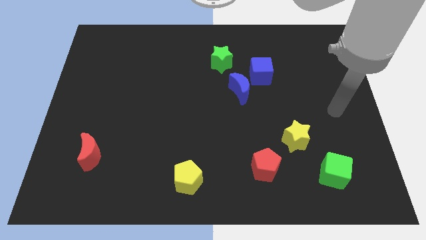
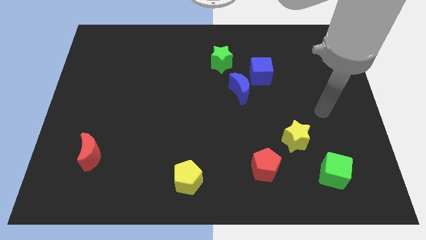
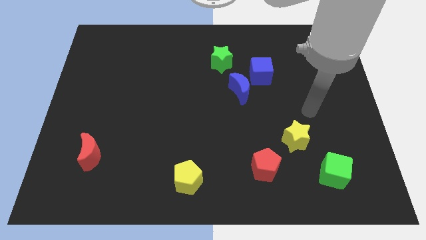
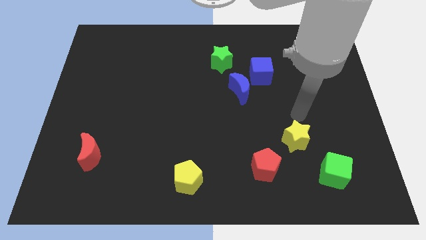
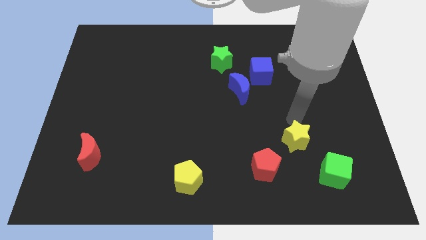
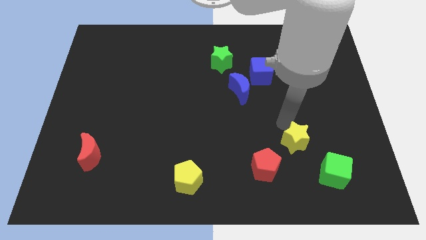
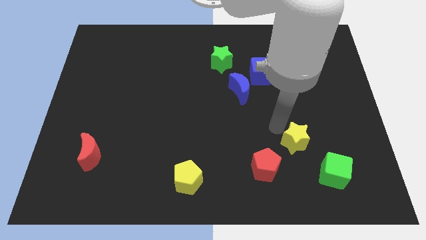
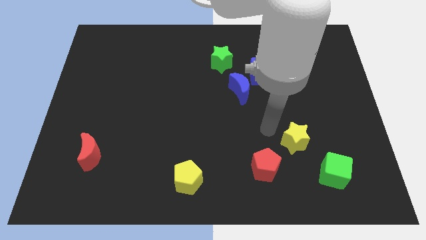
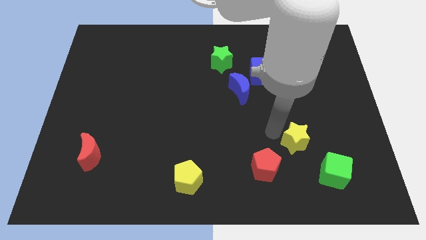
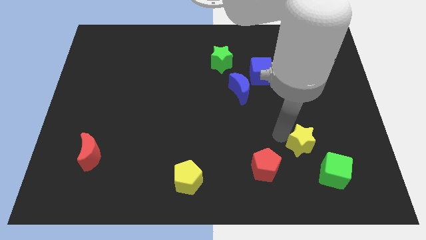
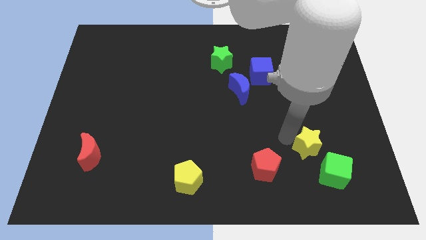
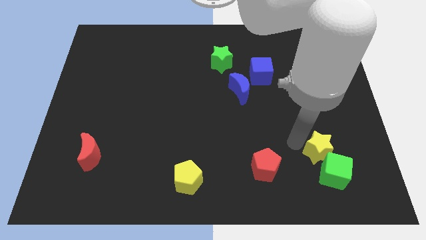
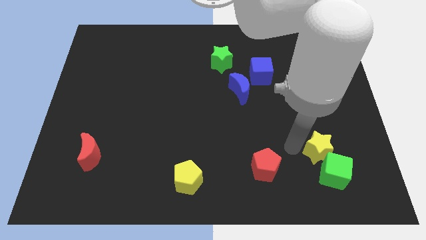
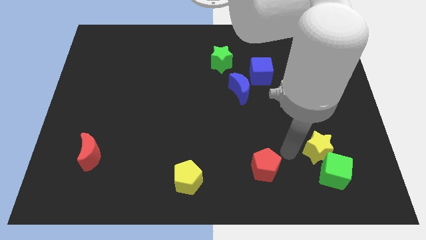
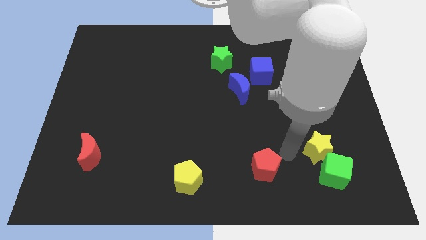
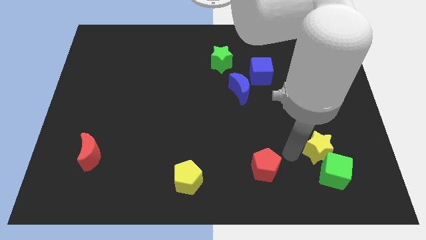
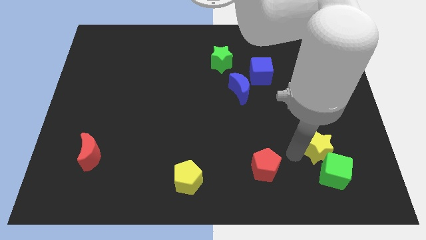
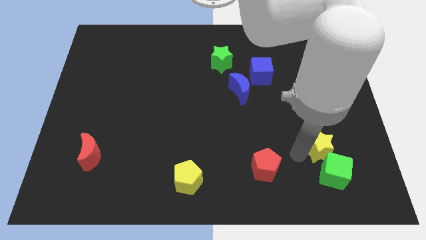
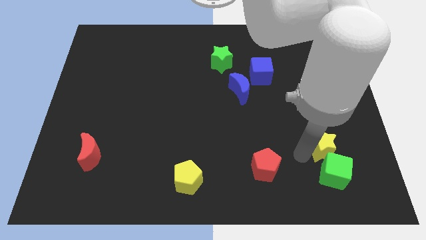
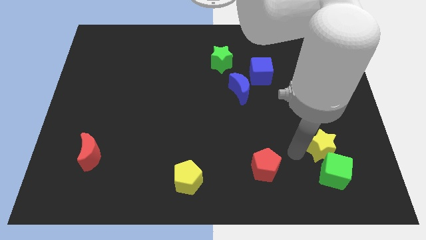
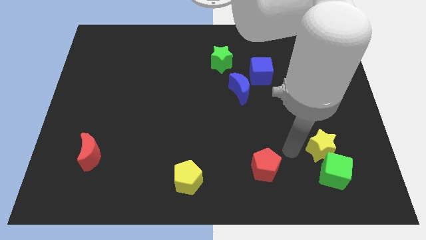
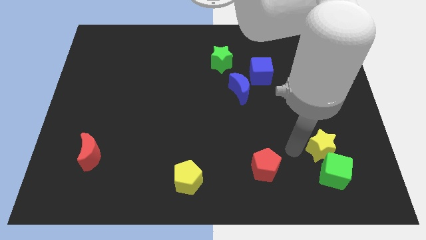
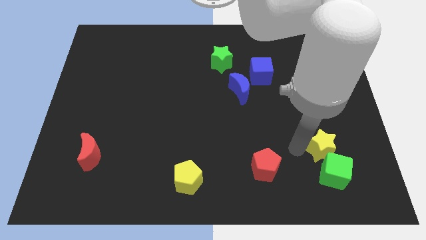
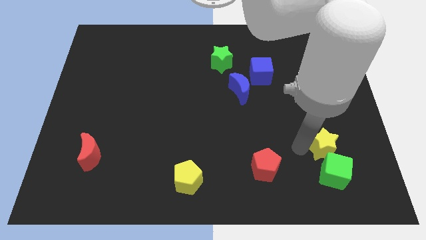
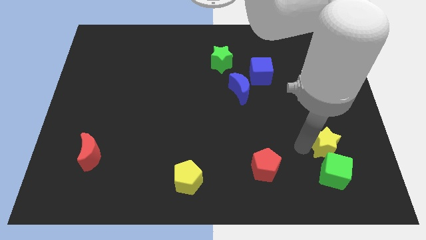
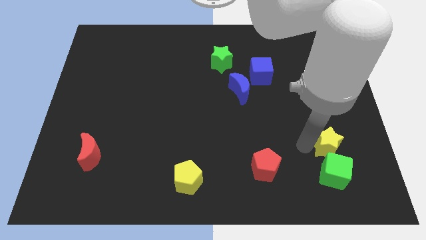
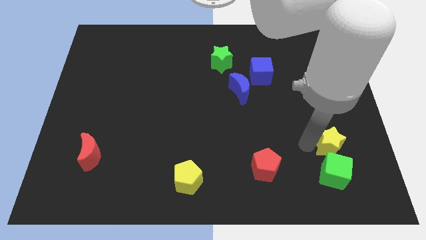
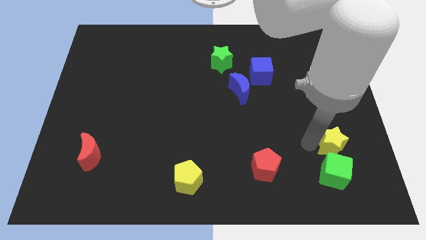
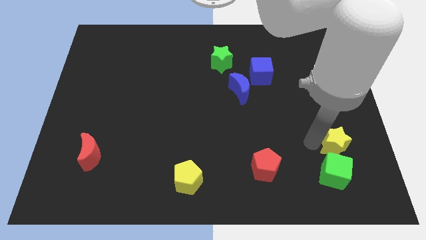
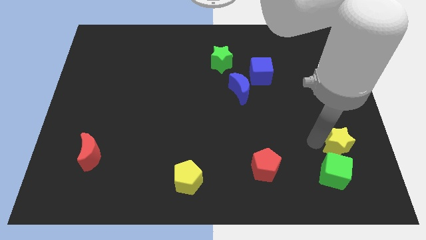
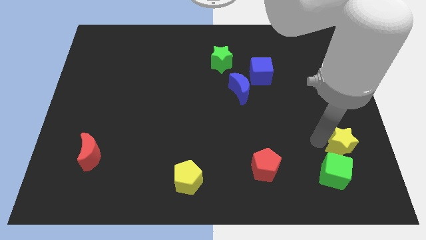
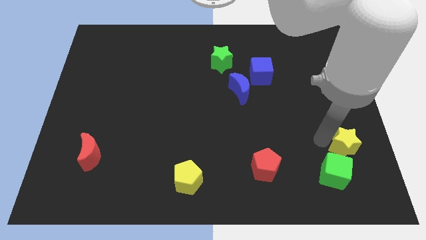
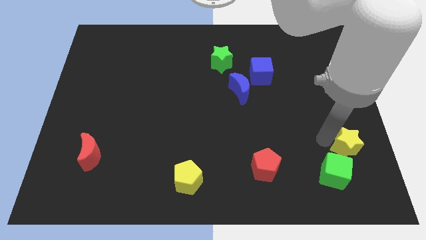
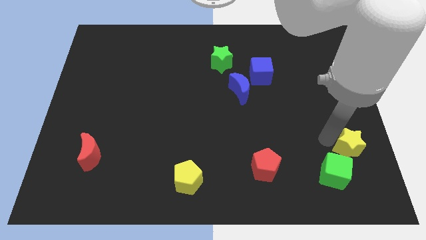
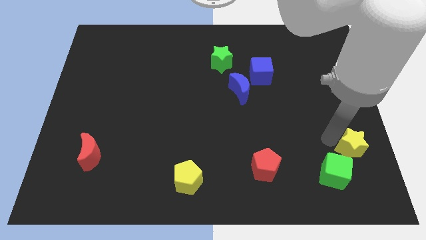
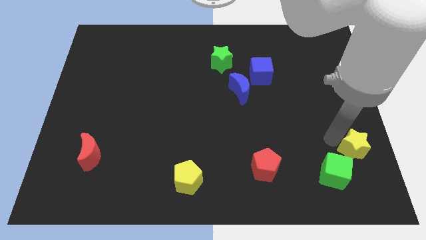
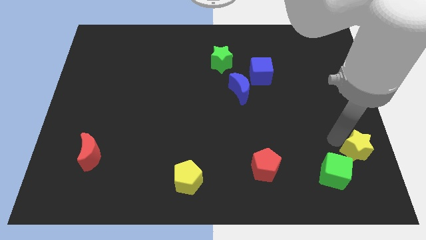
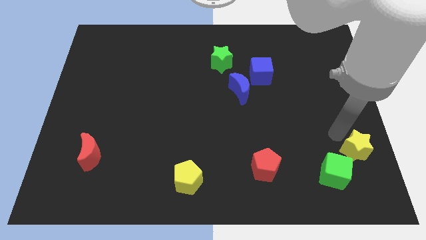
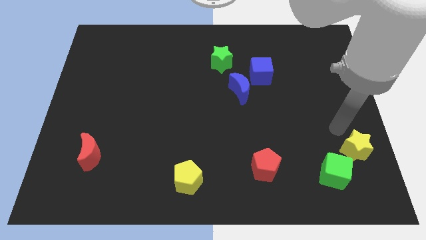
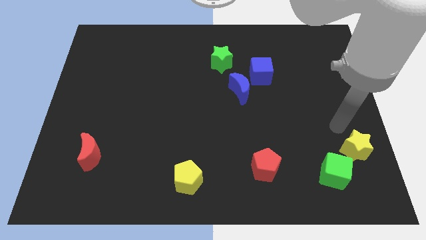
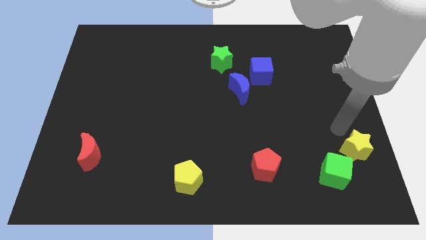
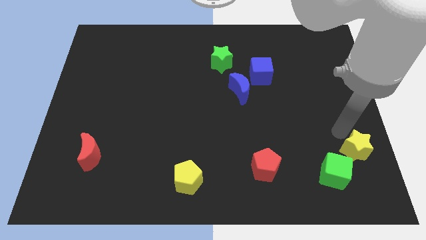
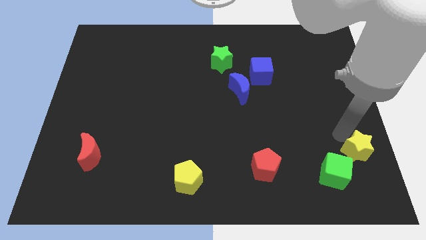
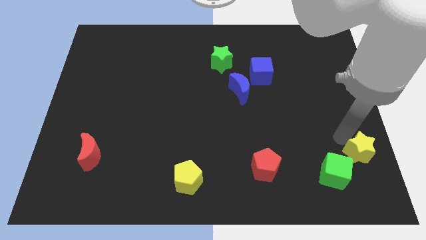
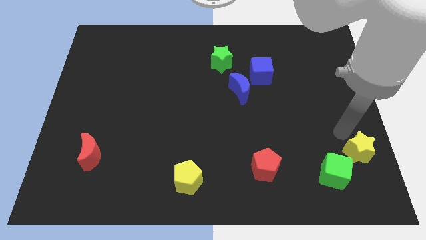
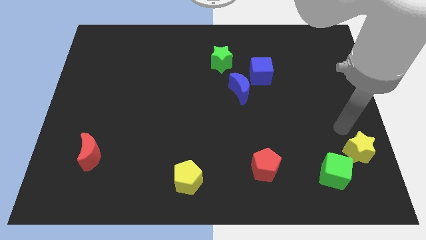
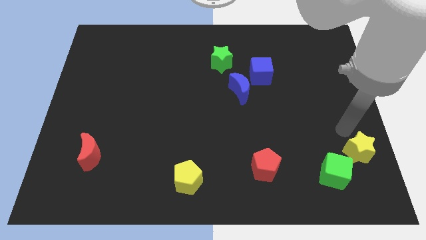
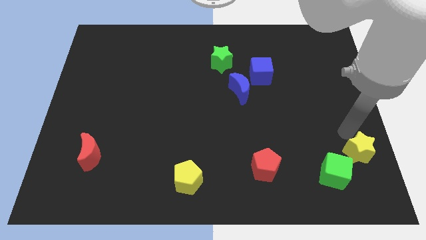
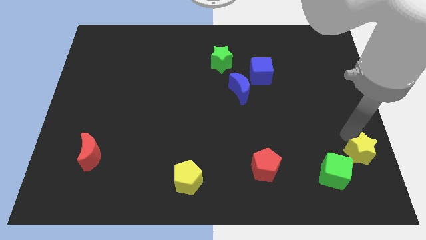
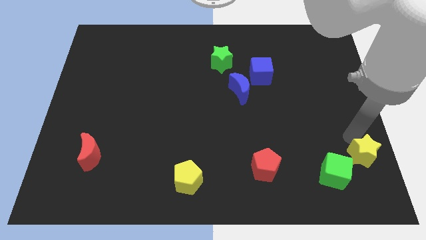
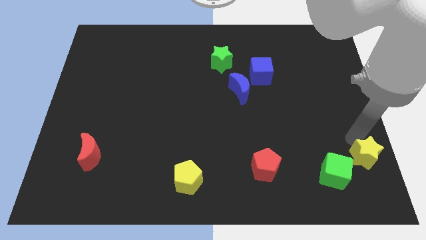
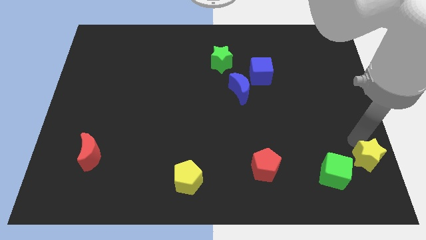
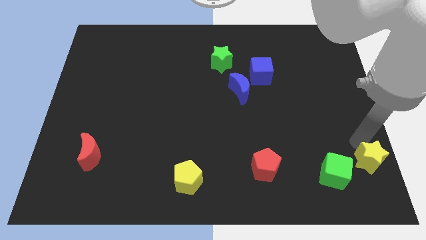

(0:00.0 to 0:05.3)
put the yellow star to the bottom right

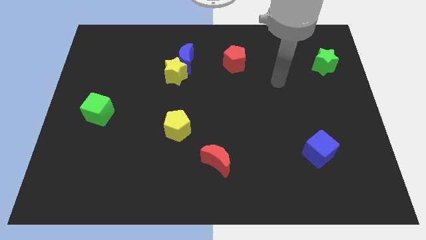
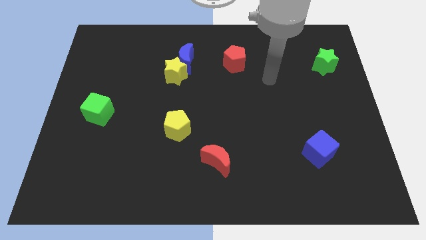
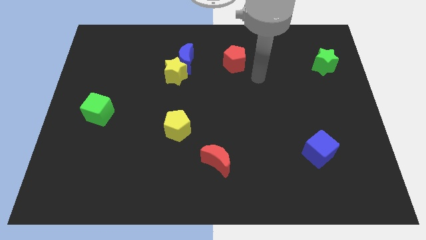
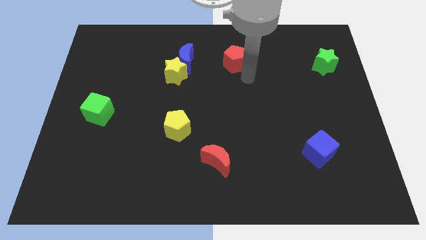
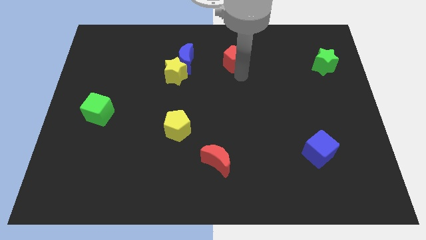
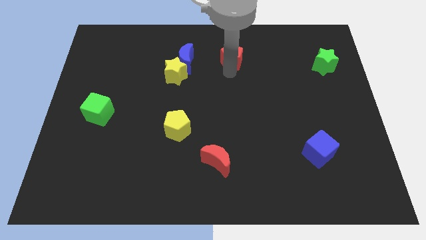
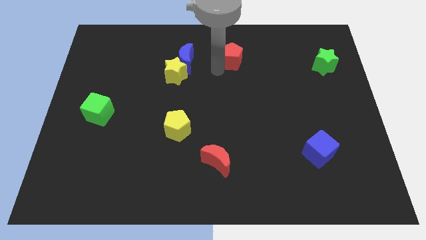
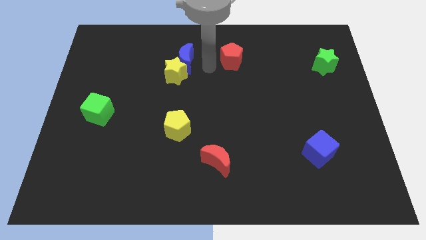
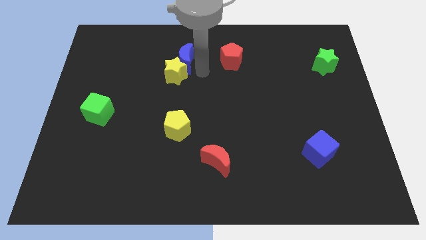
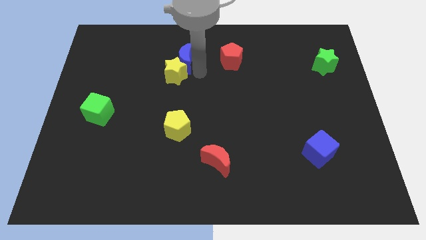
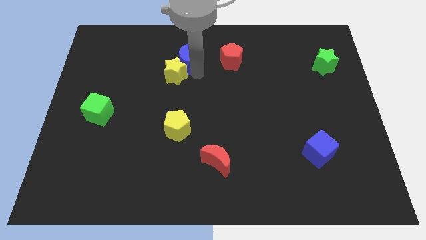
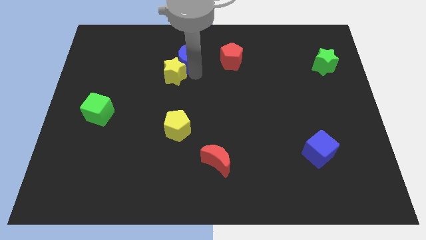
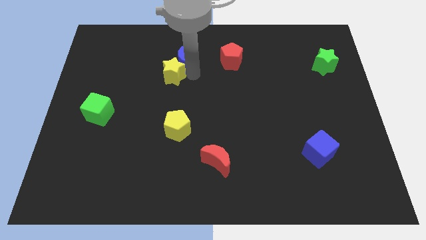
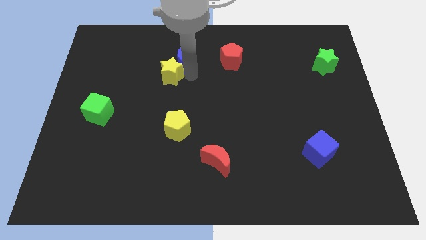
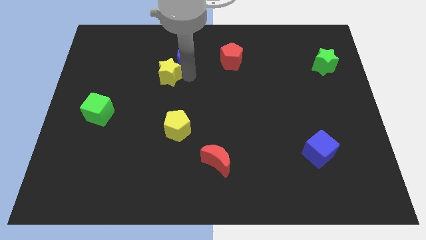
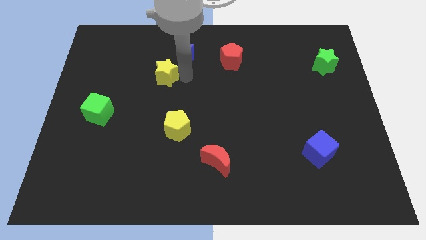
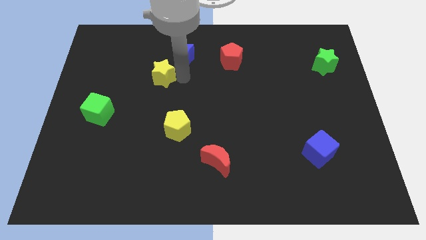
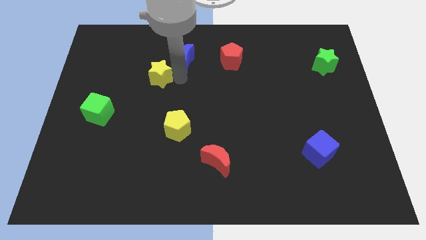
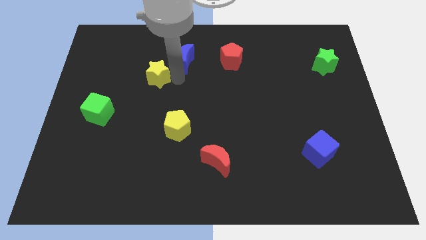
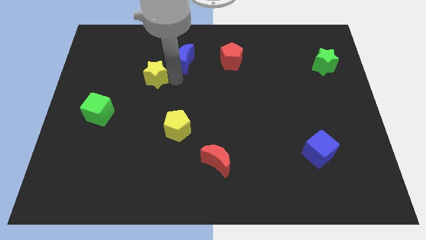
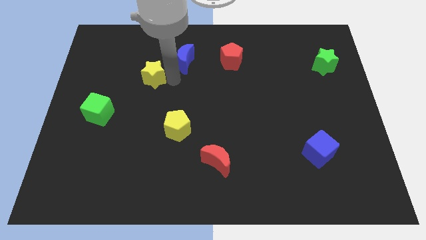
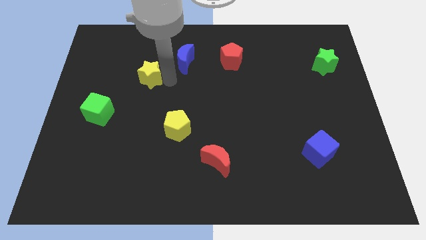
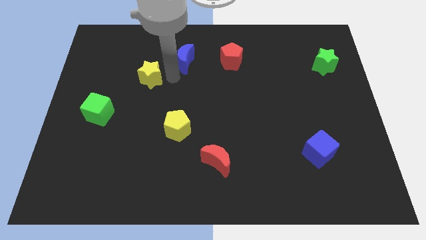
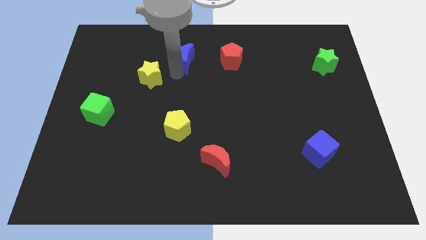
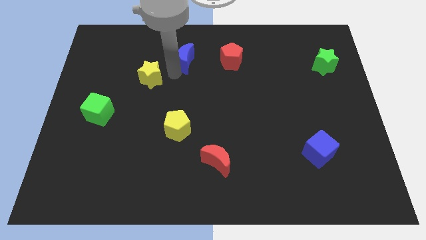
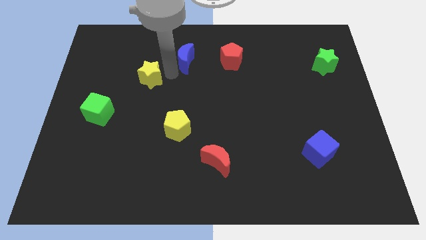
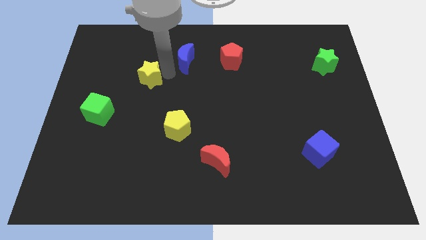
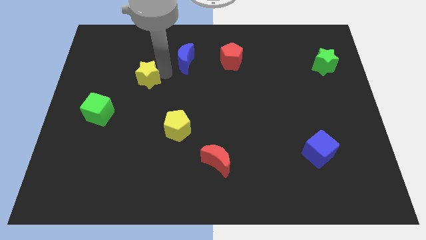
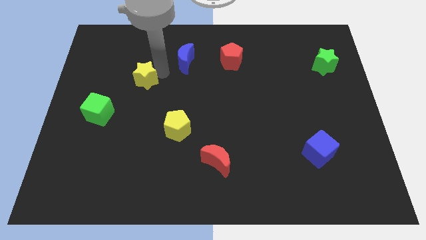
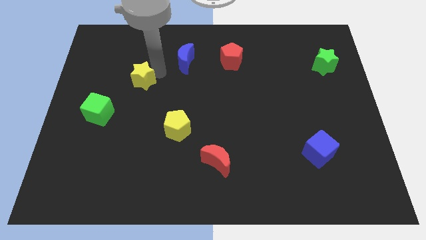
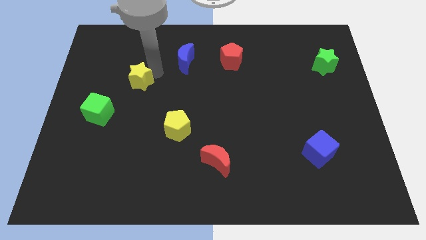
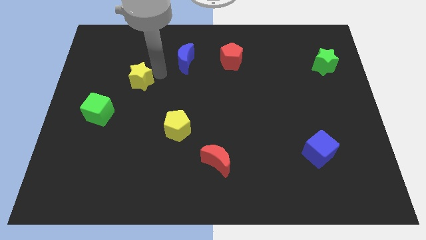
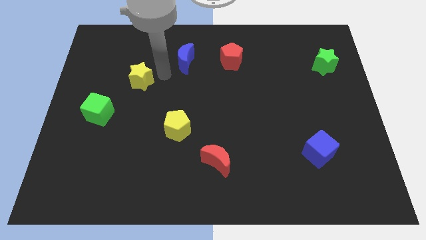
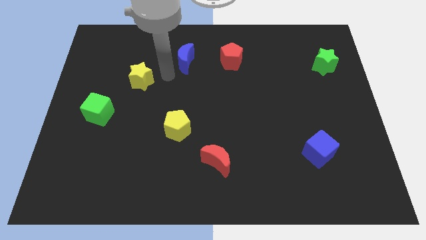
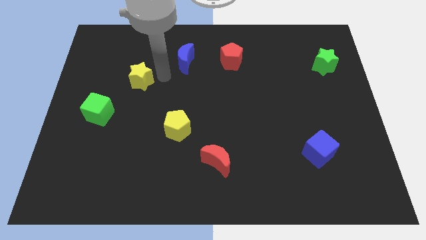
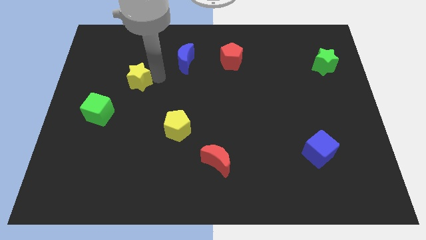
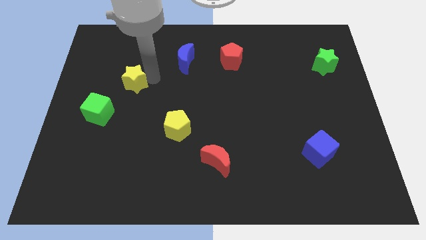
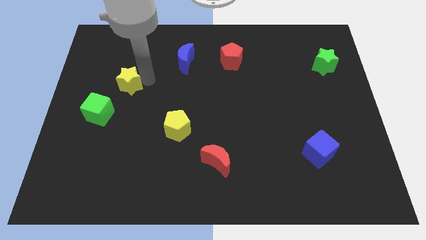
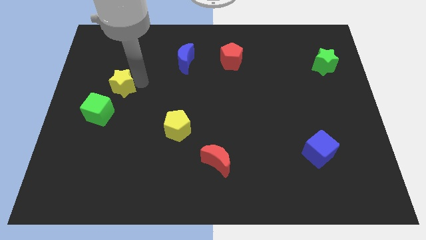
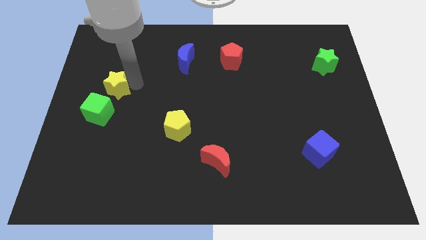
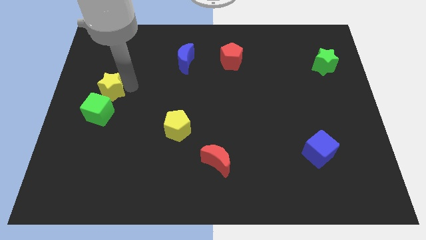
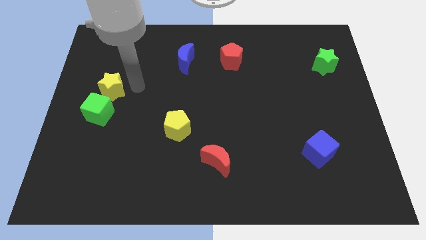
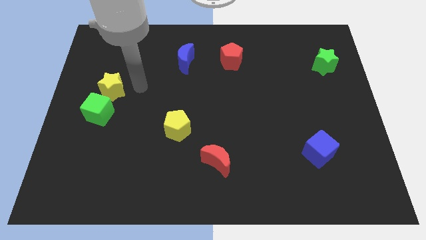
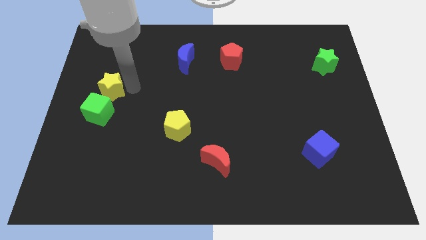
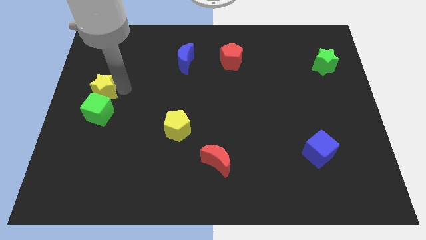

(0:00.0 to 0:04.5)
put the yellow star to the left side of the board
